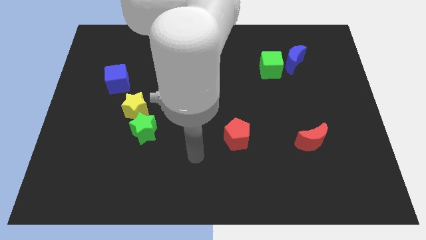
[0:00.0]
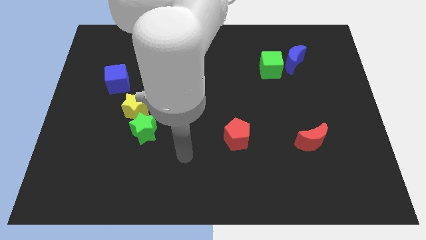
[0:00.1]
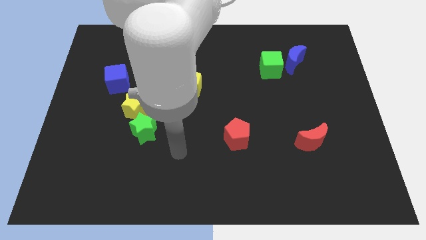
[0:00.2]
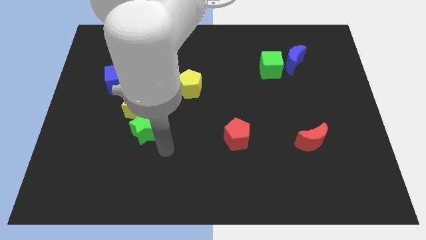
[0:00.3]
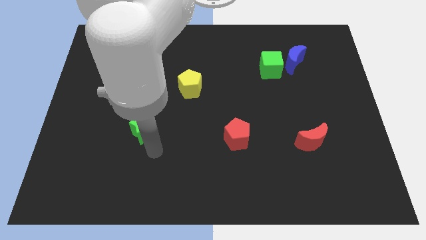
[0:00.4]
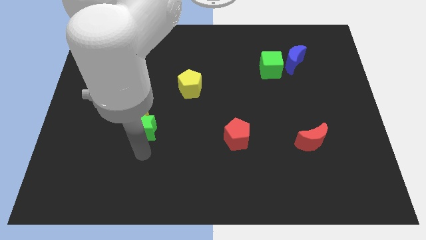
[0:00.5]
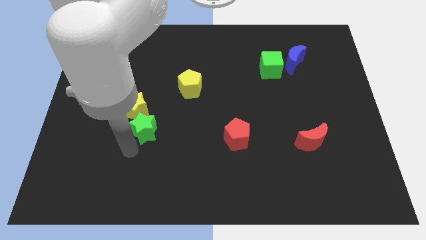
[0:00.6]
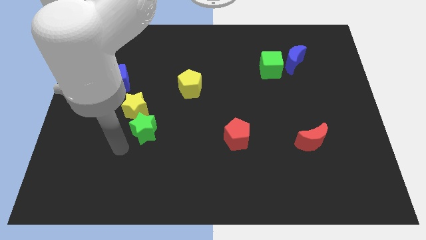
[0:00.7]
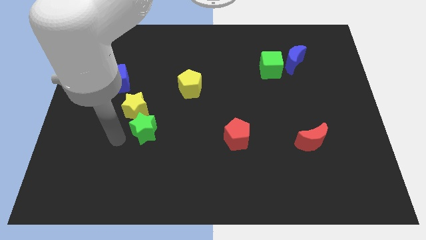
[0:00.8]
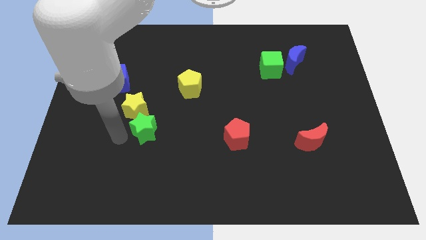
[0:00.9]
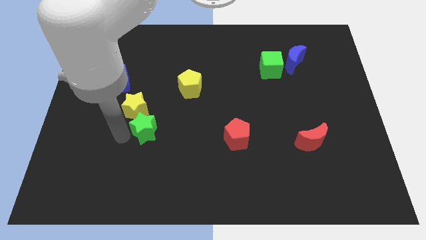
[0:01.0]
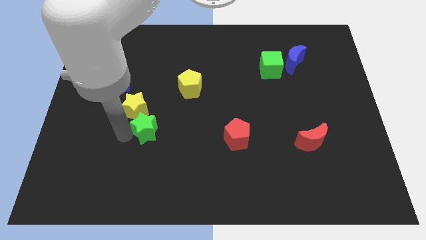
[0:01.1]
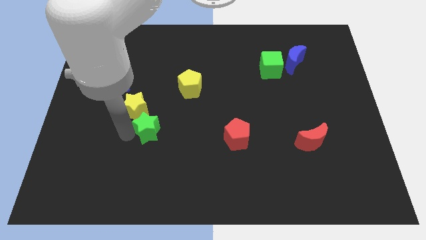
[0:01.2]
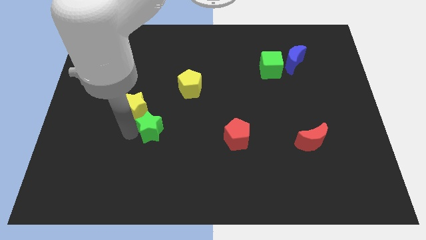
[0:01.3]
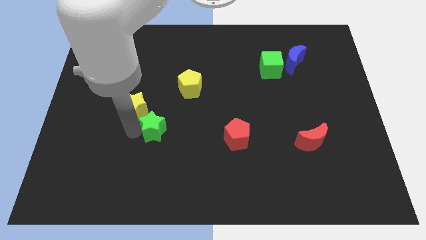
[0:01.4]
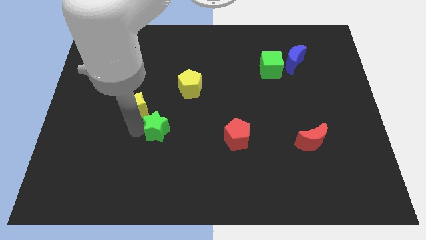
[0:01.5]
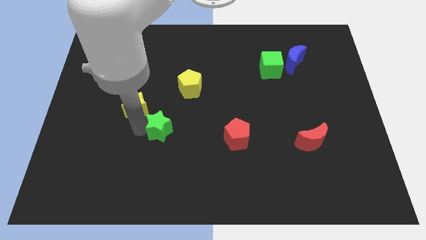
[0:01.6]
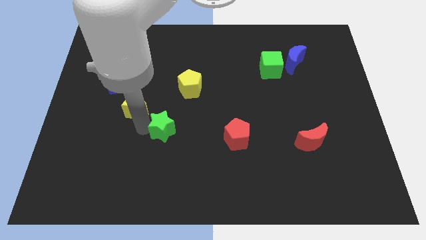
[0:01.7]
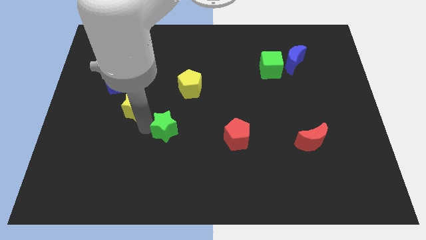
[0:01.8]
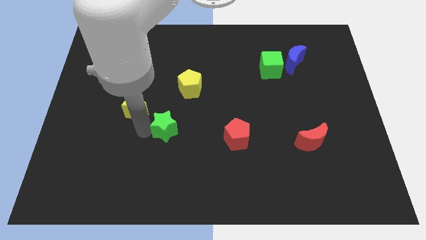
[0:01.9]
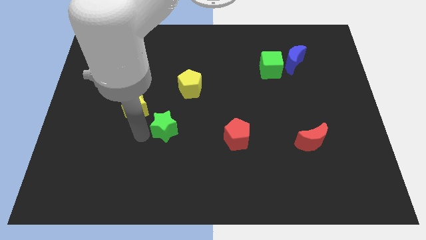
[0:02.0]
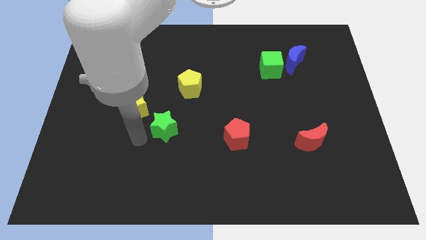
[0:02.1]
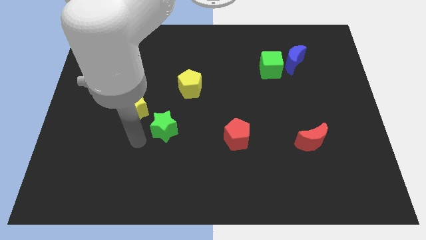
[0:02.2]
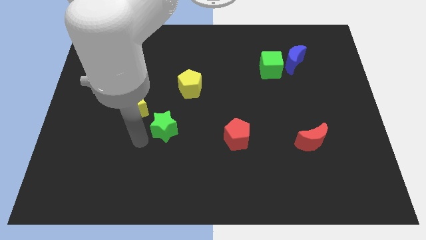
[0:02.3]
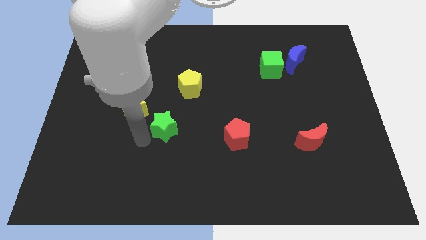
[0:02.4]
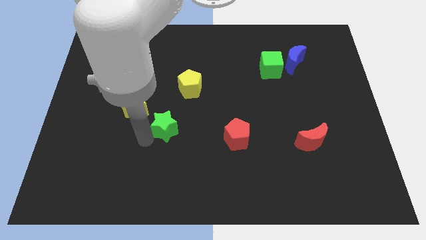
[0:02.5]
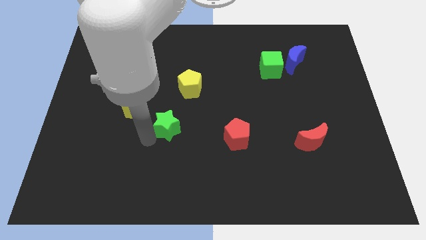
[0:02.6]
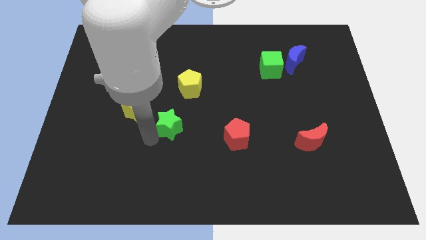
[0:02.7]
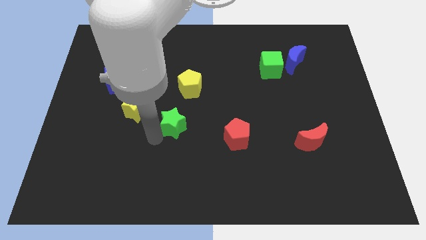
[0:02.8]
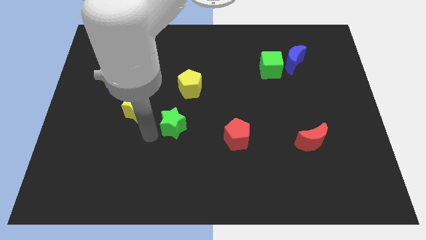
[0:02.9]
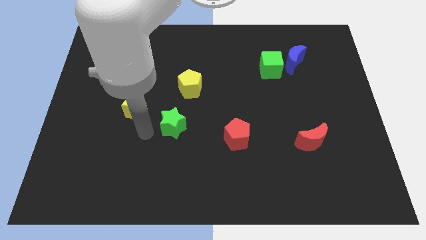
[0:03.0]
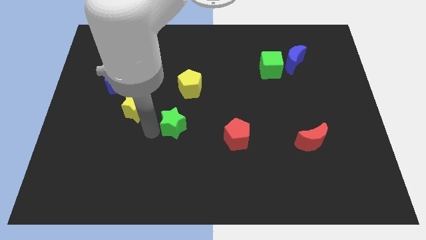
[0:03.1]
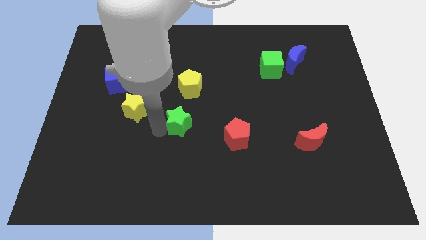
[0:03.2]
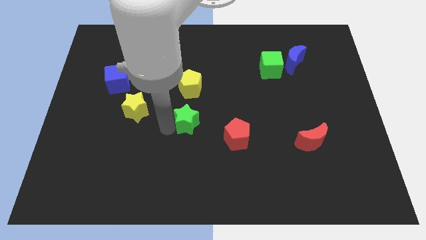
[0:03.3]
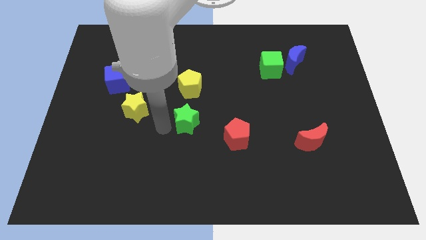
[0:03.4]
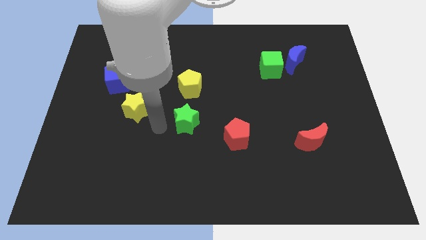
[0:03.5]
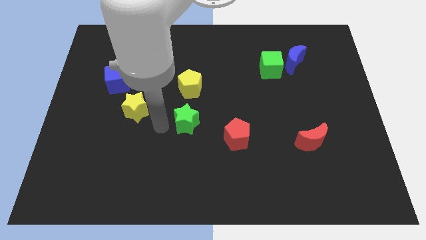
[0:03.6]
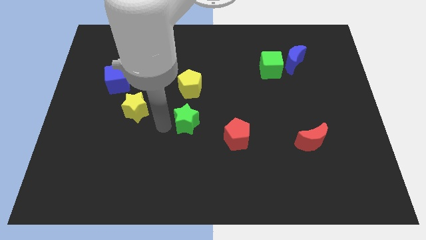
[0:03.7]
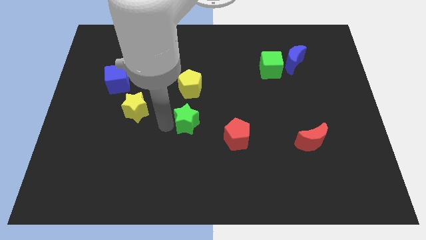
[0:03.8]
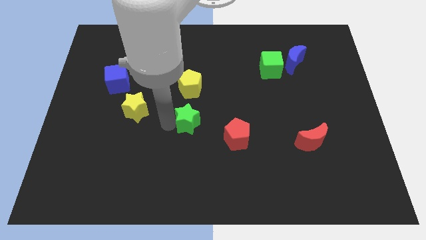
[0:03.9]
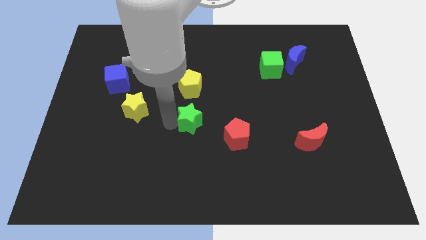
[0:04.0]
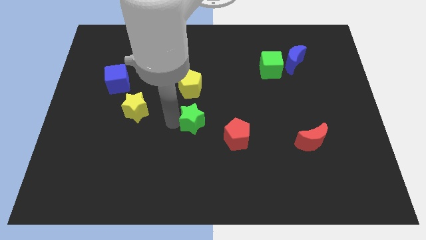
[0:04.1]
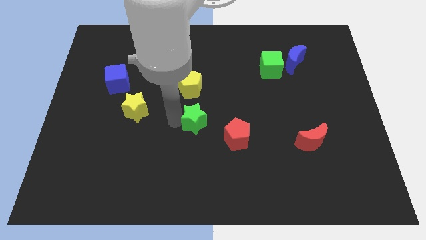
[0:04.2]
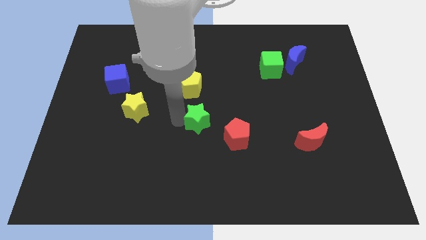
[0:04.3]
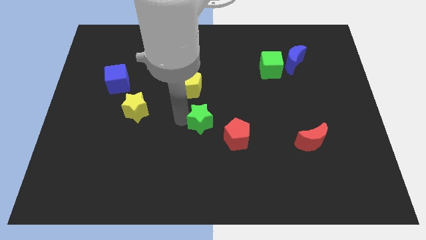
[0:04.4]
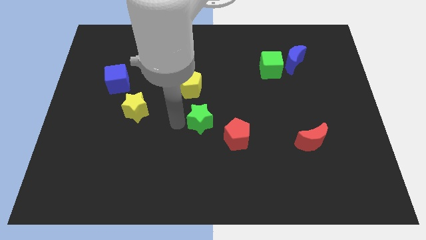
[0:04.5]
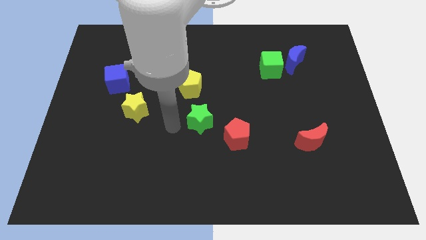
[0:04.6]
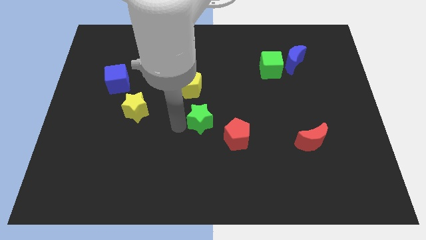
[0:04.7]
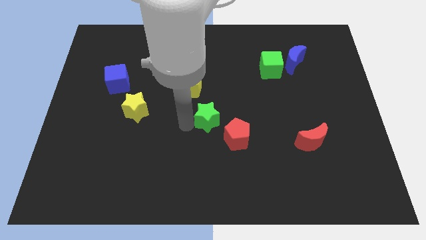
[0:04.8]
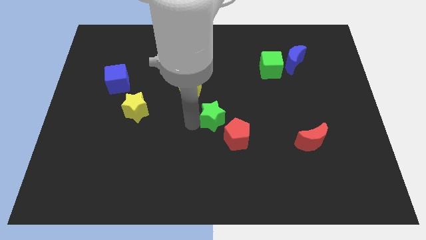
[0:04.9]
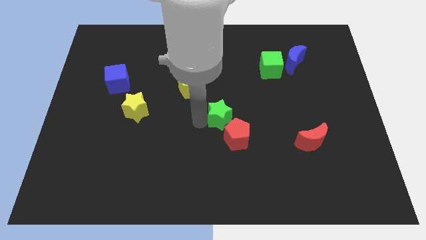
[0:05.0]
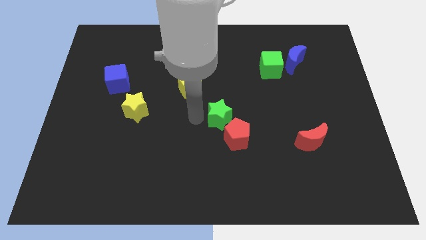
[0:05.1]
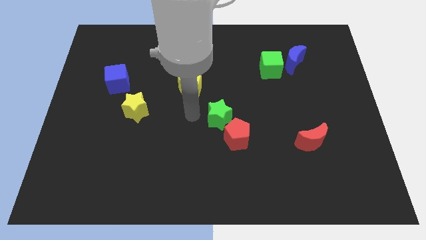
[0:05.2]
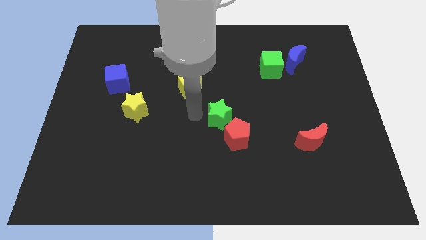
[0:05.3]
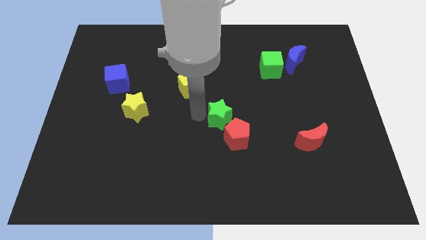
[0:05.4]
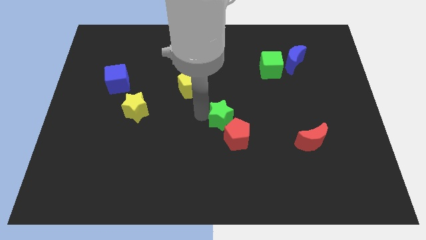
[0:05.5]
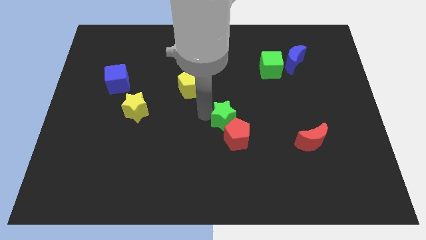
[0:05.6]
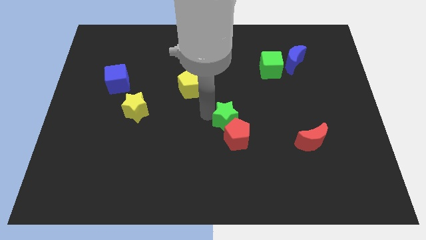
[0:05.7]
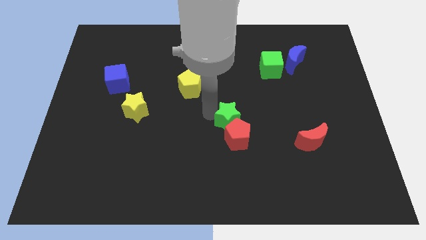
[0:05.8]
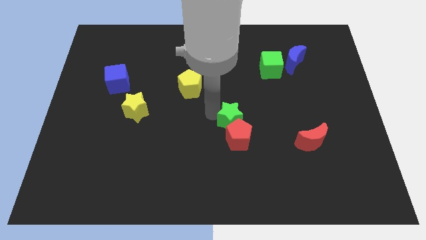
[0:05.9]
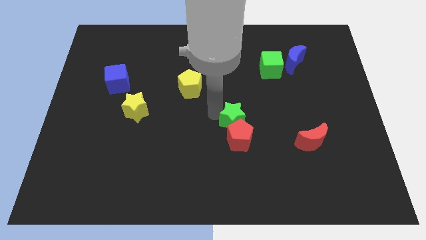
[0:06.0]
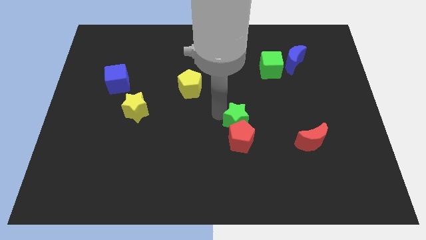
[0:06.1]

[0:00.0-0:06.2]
push the green star right

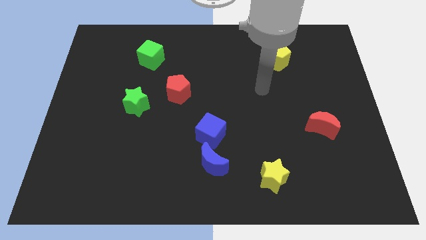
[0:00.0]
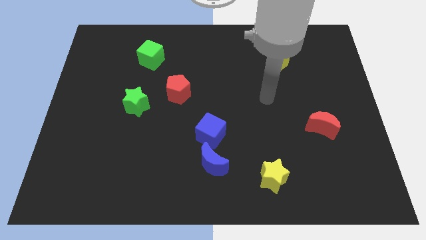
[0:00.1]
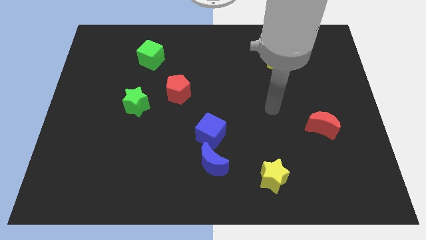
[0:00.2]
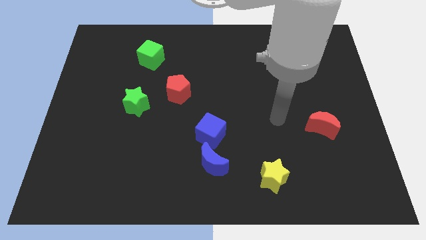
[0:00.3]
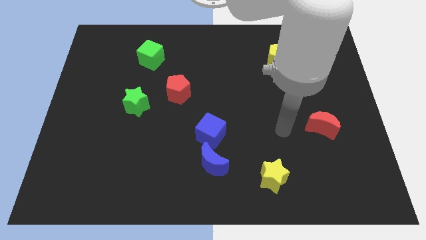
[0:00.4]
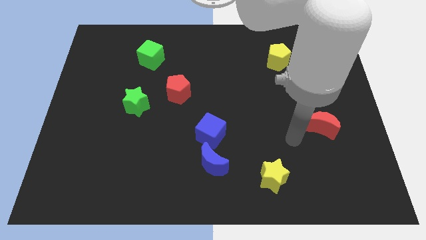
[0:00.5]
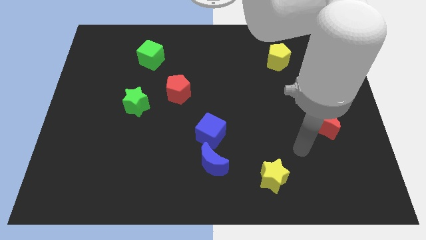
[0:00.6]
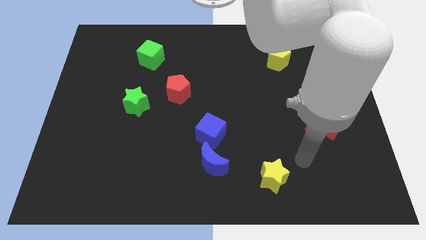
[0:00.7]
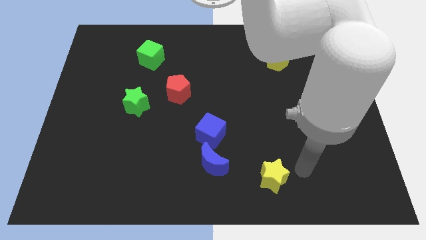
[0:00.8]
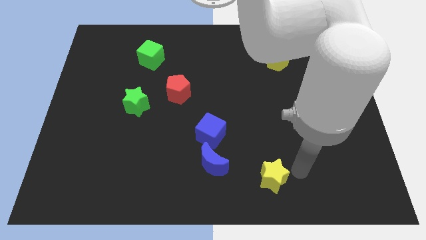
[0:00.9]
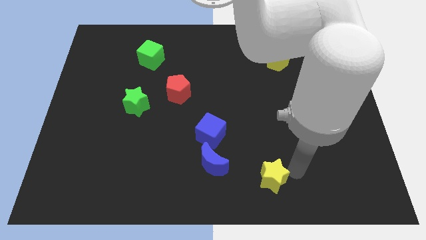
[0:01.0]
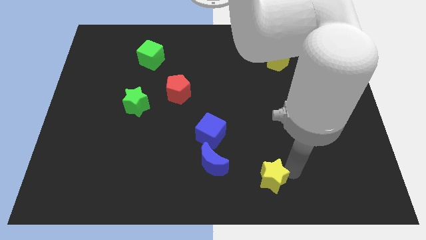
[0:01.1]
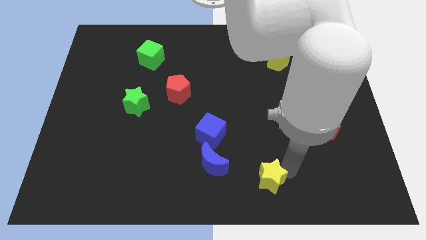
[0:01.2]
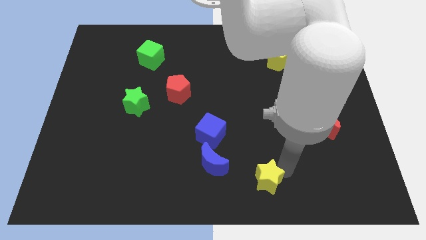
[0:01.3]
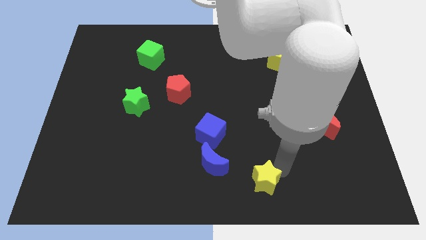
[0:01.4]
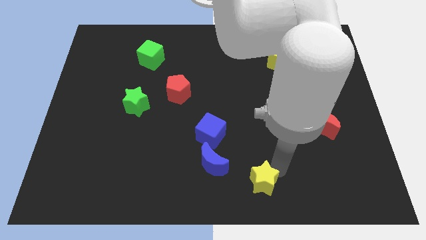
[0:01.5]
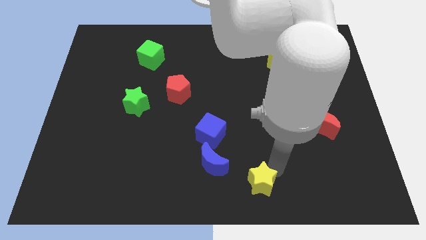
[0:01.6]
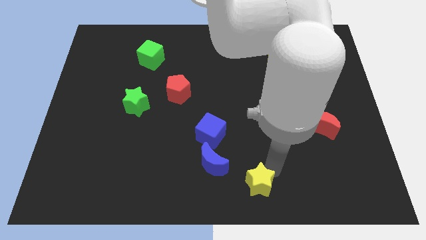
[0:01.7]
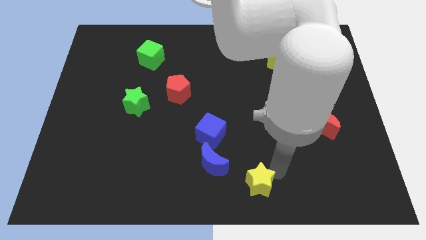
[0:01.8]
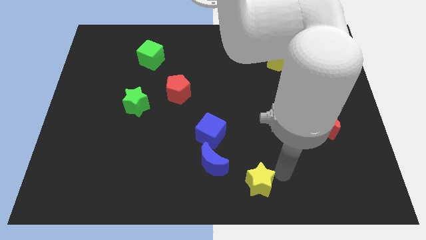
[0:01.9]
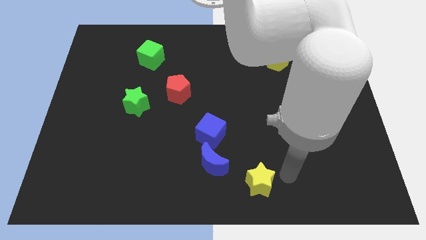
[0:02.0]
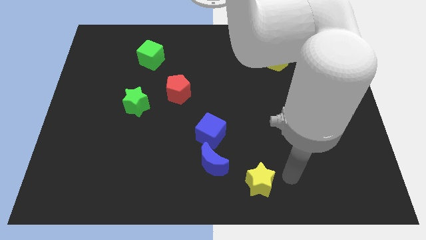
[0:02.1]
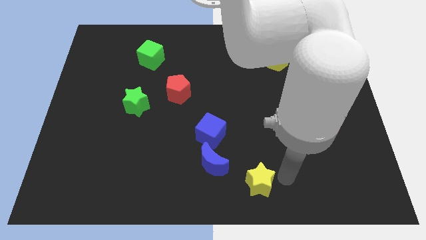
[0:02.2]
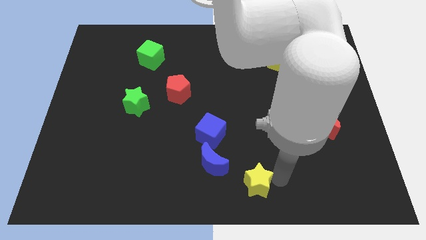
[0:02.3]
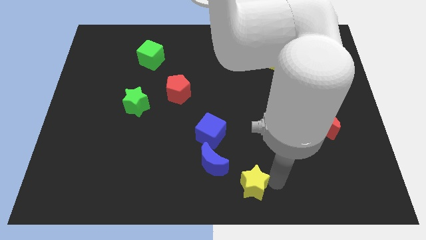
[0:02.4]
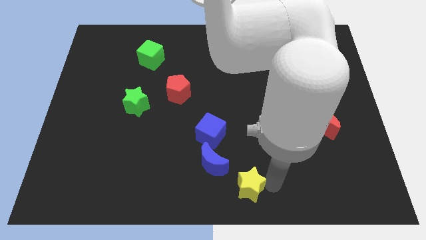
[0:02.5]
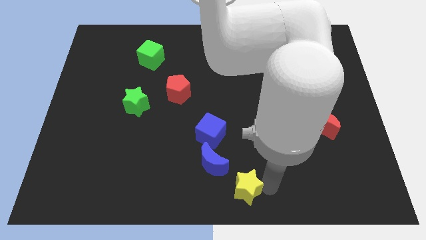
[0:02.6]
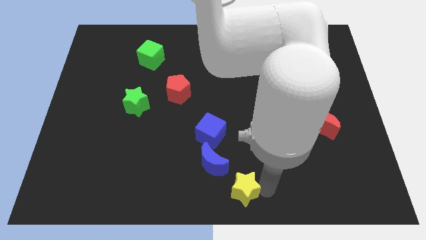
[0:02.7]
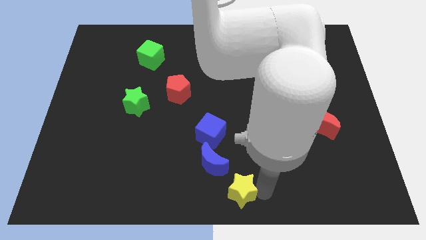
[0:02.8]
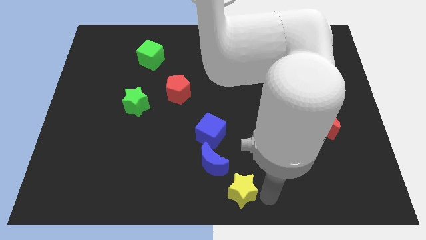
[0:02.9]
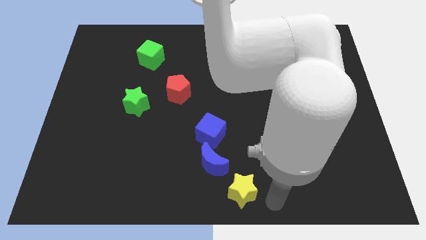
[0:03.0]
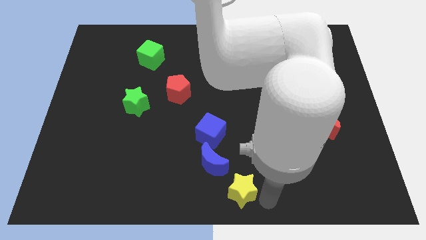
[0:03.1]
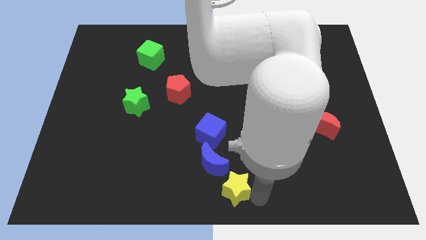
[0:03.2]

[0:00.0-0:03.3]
slightly slide the yellow star left
